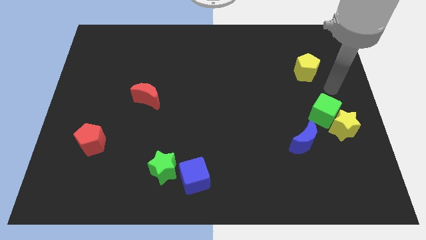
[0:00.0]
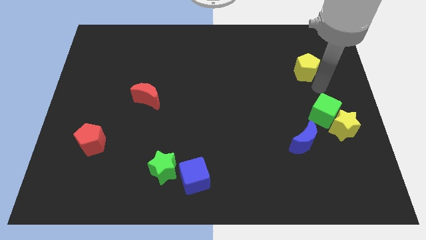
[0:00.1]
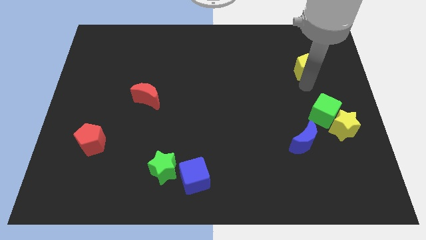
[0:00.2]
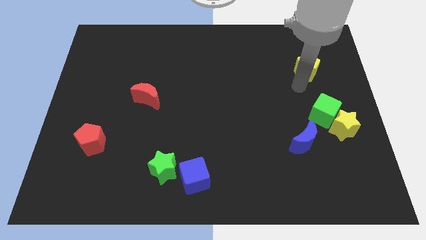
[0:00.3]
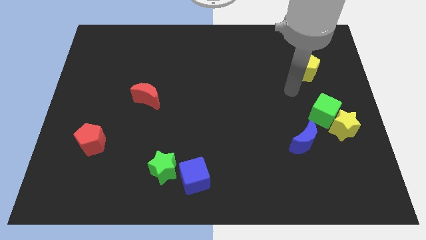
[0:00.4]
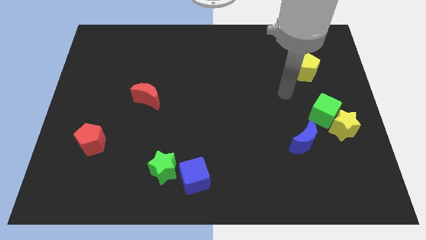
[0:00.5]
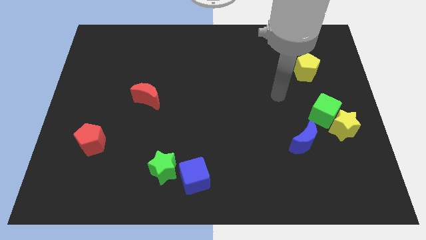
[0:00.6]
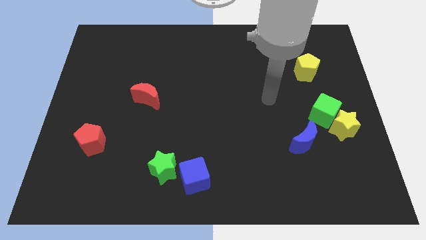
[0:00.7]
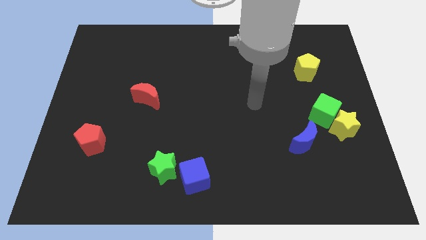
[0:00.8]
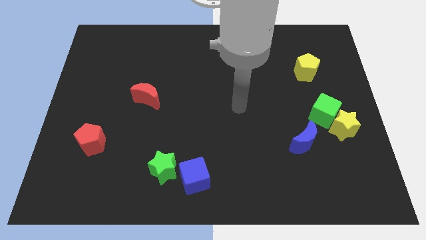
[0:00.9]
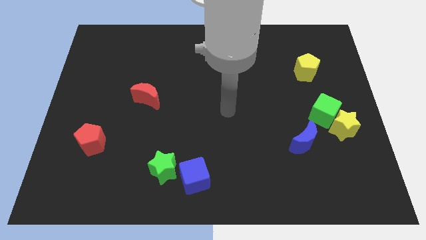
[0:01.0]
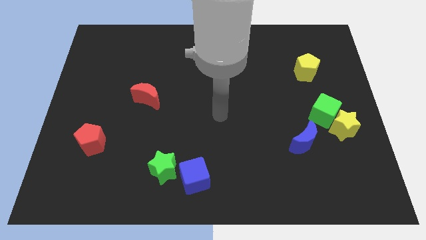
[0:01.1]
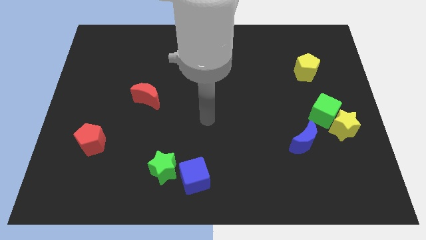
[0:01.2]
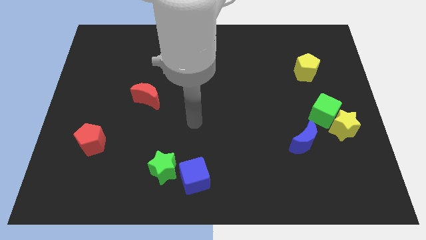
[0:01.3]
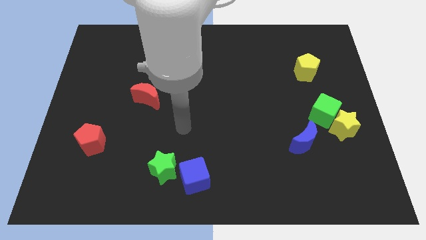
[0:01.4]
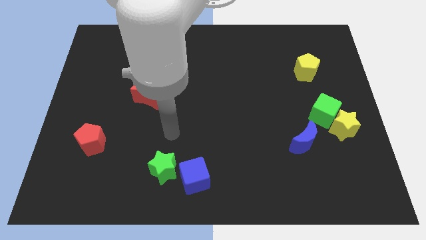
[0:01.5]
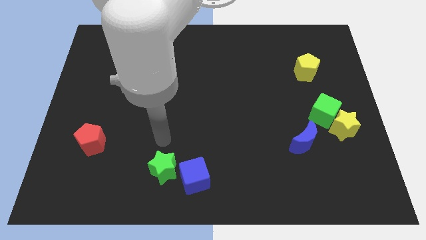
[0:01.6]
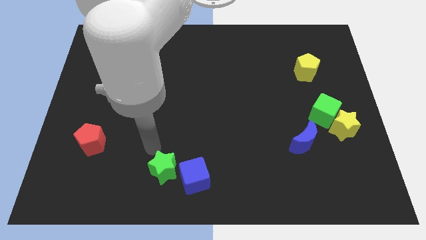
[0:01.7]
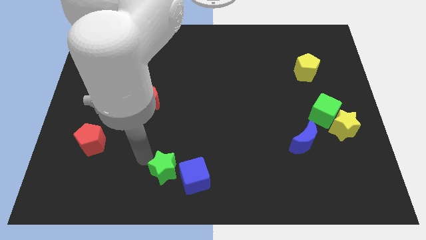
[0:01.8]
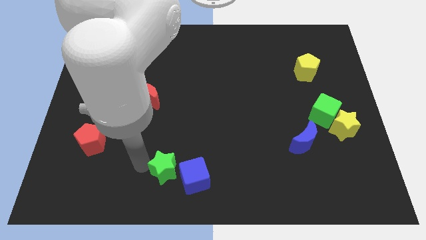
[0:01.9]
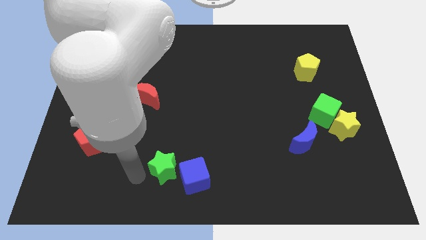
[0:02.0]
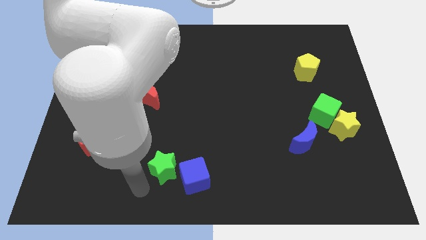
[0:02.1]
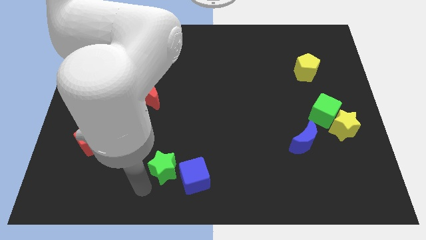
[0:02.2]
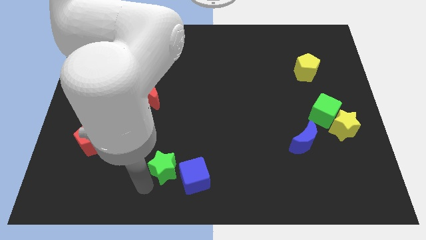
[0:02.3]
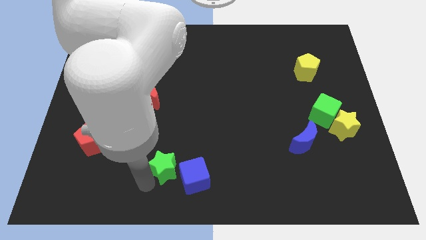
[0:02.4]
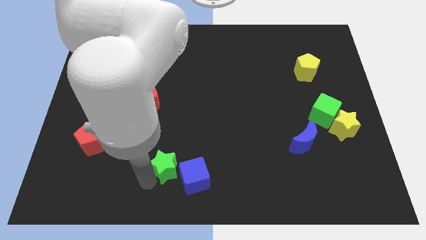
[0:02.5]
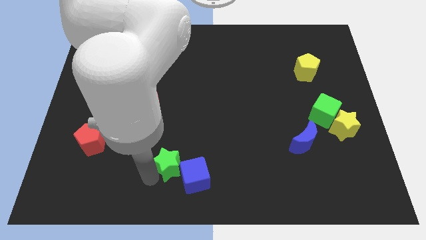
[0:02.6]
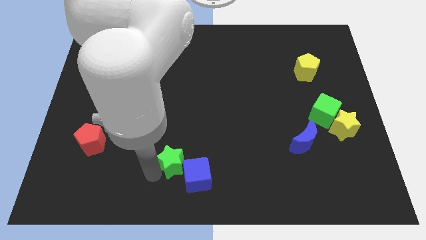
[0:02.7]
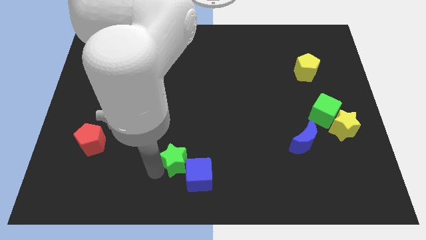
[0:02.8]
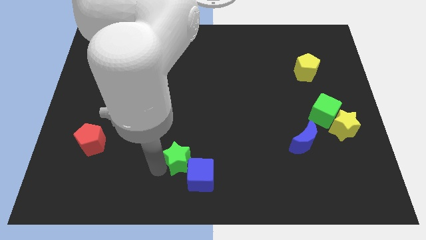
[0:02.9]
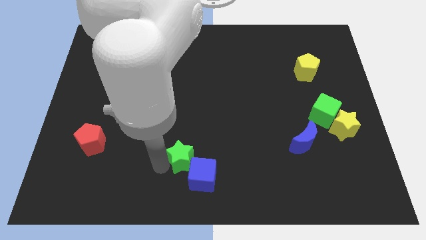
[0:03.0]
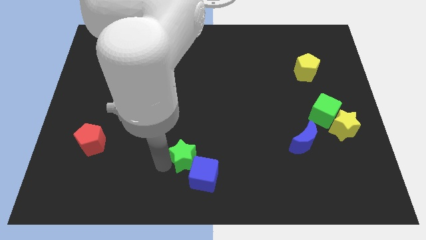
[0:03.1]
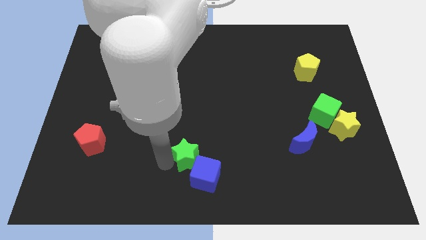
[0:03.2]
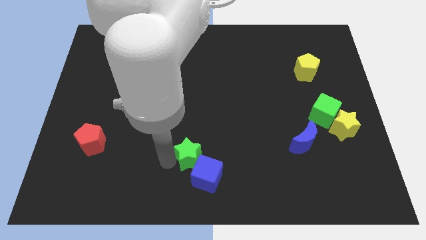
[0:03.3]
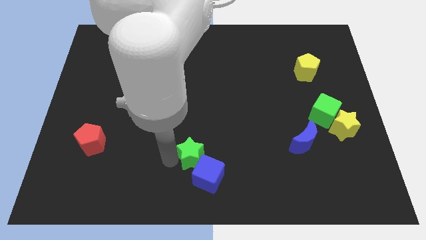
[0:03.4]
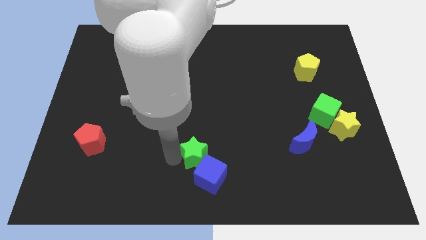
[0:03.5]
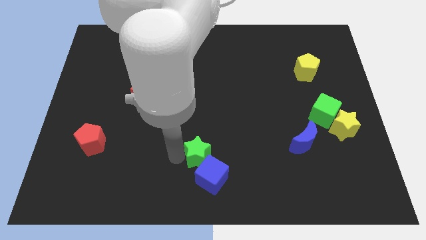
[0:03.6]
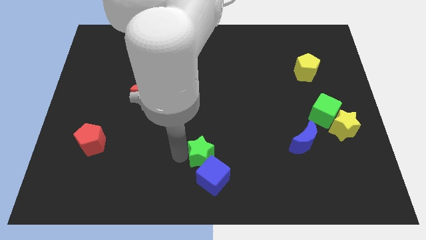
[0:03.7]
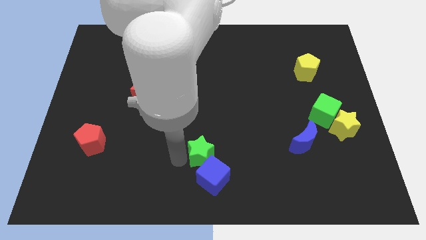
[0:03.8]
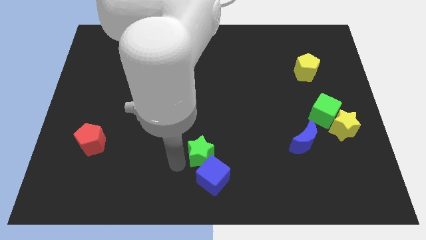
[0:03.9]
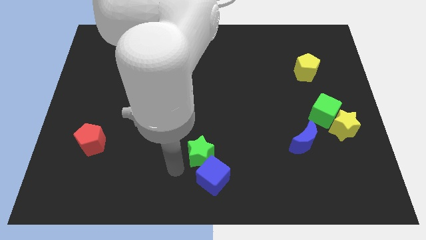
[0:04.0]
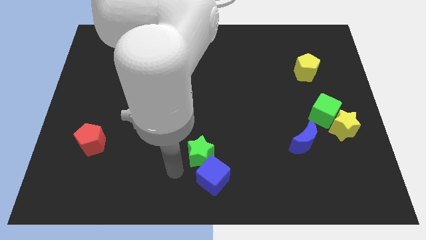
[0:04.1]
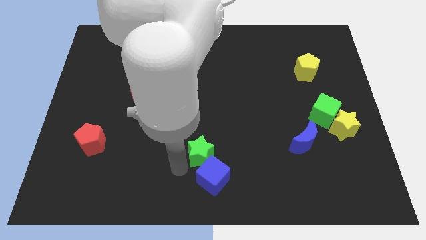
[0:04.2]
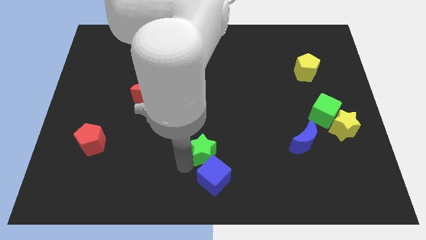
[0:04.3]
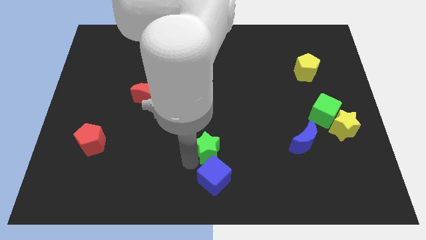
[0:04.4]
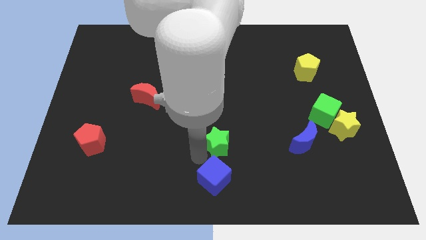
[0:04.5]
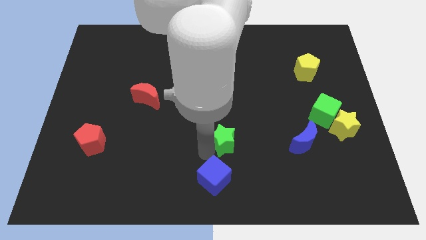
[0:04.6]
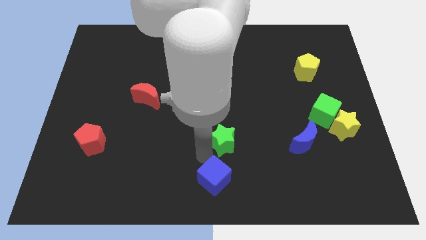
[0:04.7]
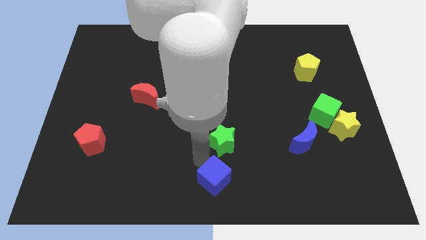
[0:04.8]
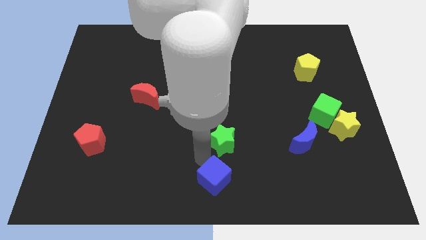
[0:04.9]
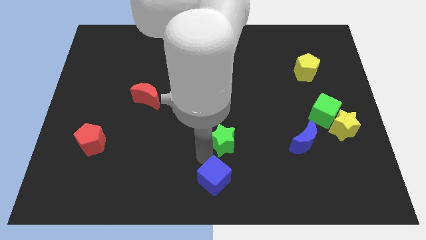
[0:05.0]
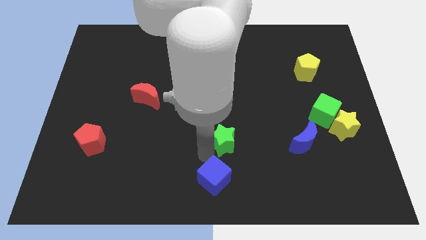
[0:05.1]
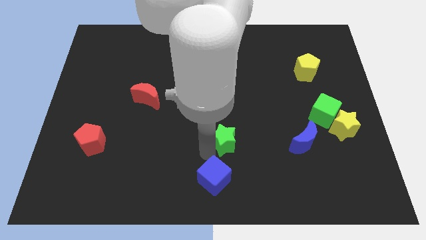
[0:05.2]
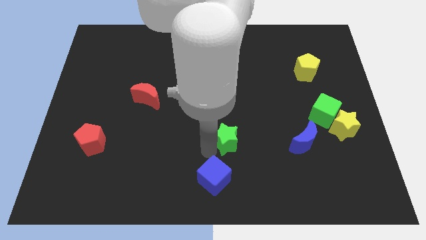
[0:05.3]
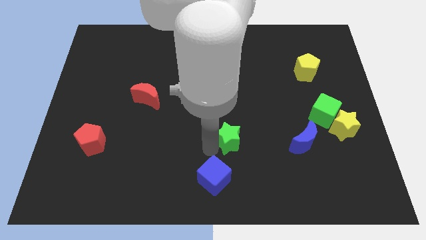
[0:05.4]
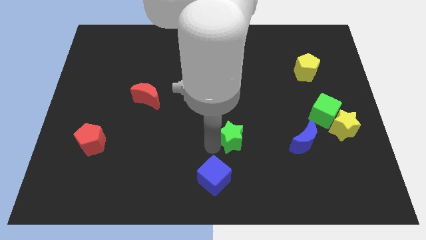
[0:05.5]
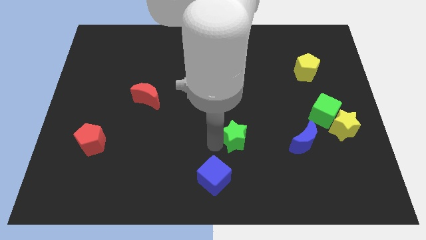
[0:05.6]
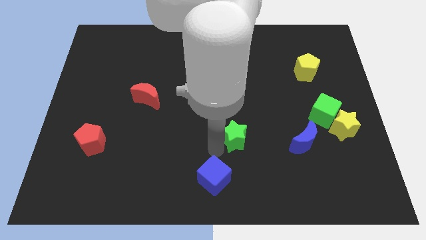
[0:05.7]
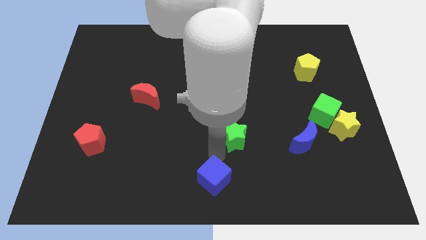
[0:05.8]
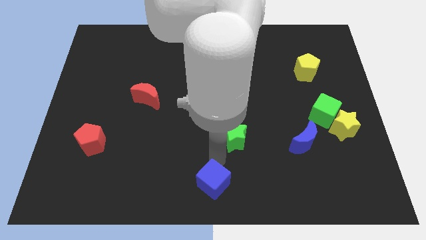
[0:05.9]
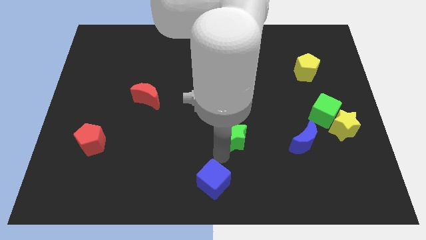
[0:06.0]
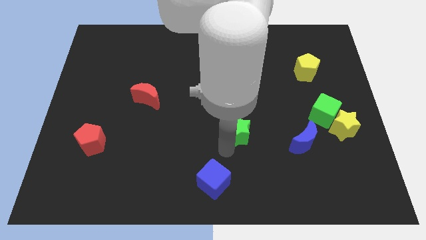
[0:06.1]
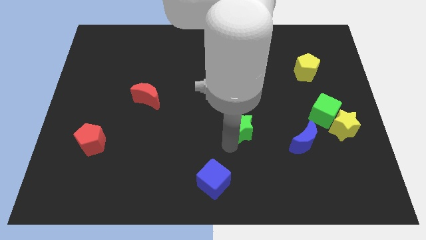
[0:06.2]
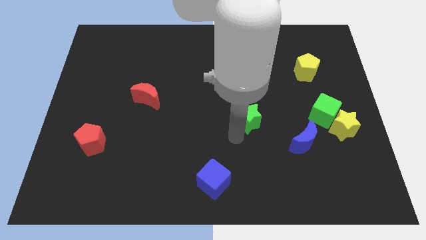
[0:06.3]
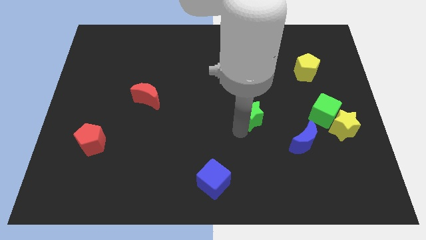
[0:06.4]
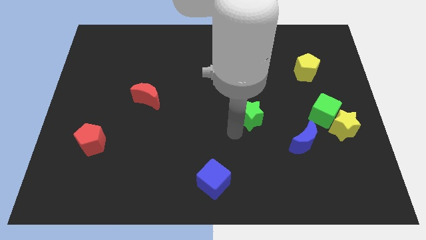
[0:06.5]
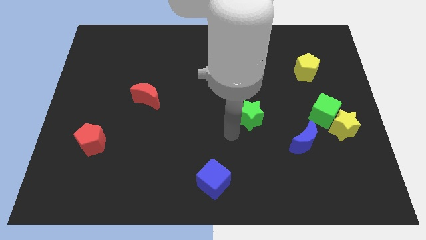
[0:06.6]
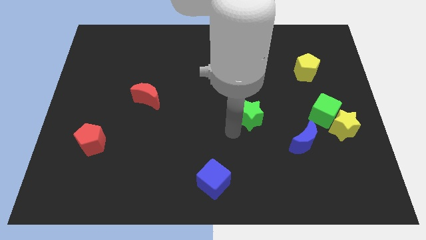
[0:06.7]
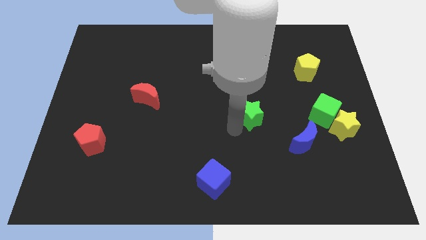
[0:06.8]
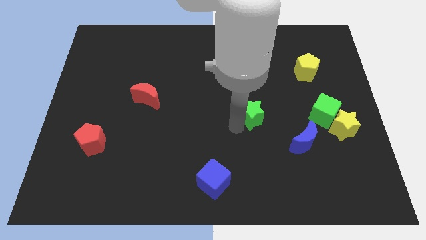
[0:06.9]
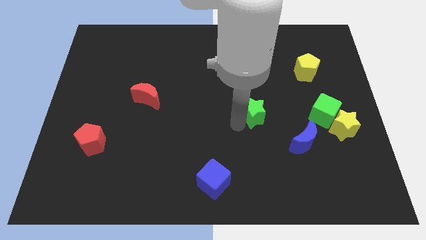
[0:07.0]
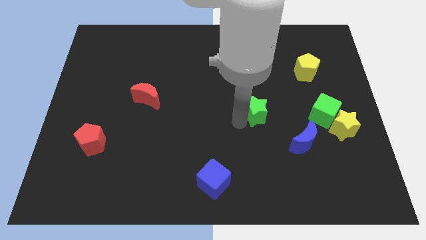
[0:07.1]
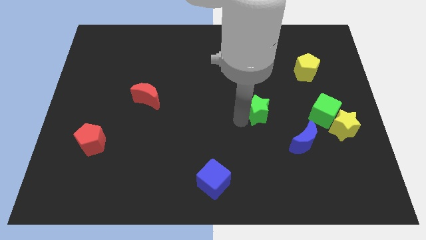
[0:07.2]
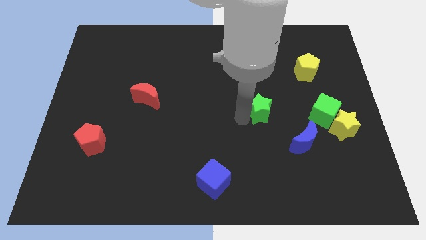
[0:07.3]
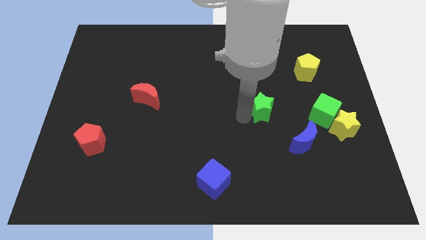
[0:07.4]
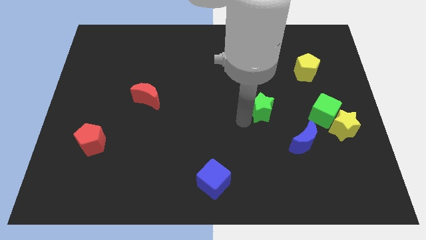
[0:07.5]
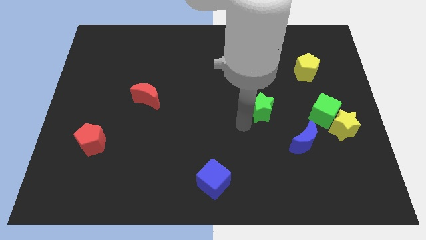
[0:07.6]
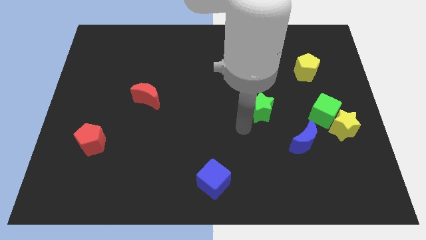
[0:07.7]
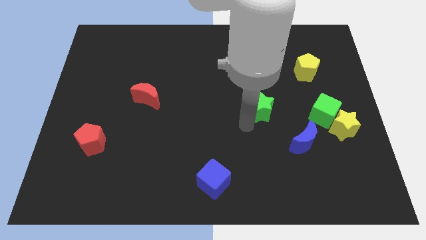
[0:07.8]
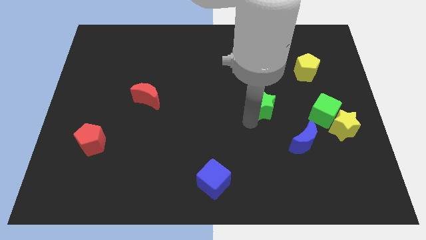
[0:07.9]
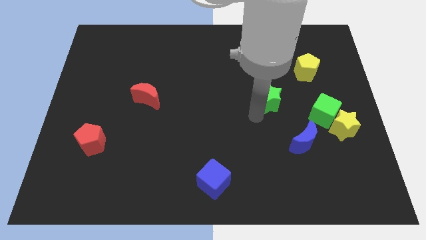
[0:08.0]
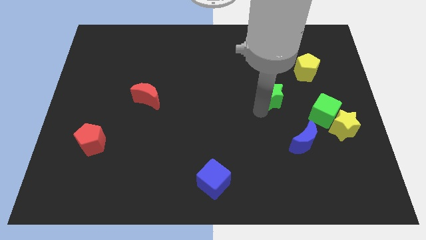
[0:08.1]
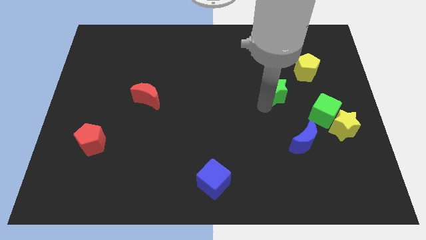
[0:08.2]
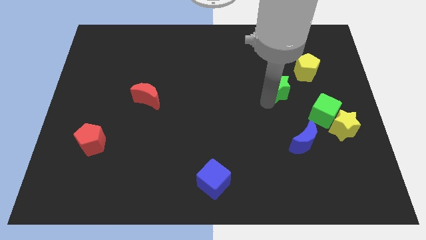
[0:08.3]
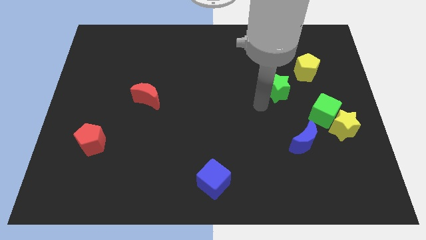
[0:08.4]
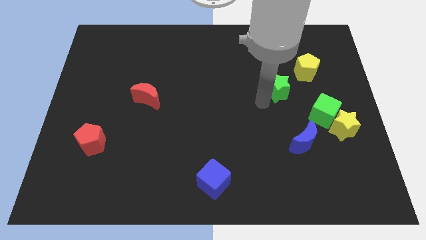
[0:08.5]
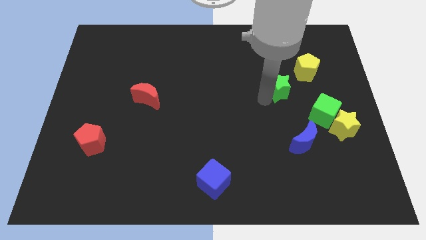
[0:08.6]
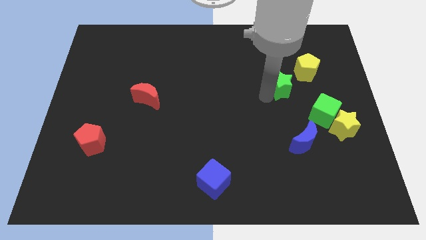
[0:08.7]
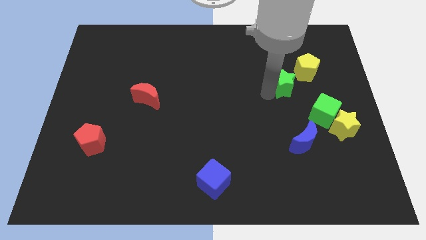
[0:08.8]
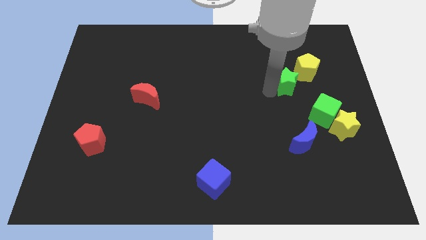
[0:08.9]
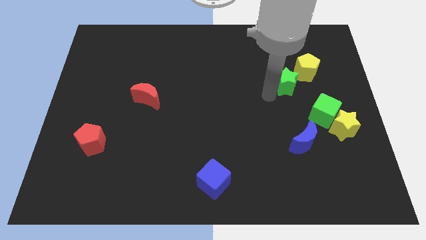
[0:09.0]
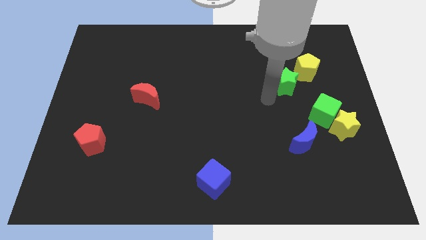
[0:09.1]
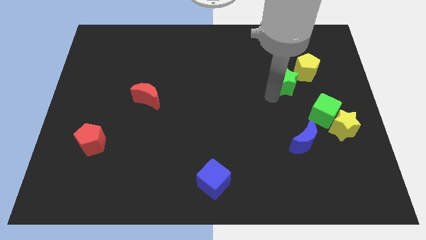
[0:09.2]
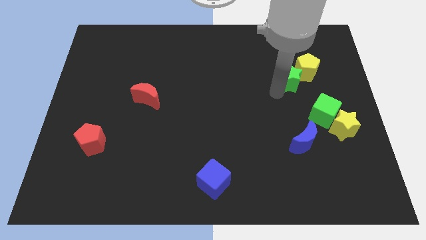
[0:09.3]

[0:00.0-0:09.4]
move the green star close to the yellow pentagon
